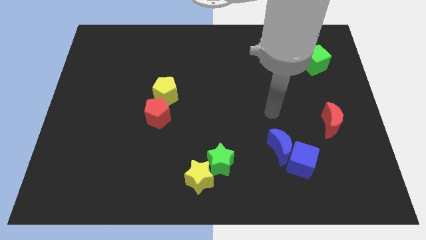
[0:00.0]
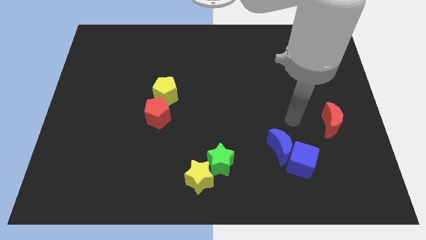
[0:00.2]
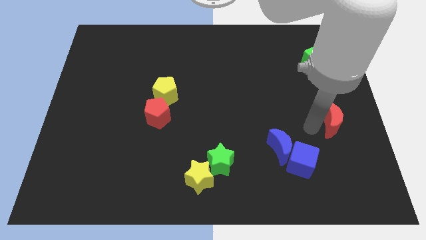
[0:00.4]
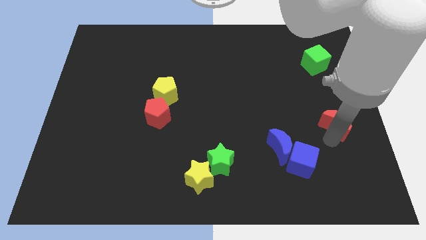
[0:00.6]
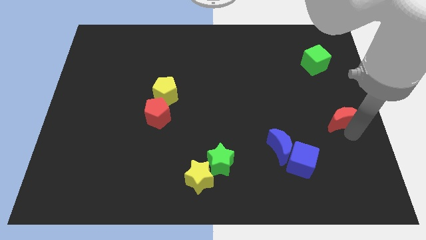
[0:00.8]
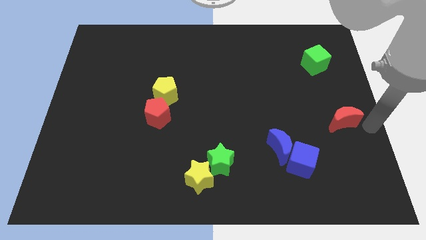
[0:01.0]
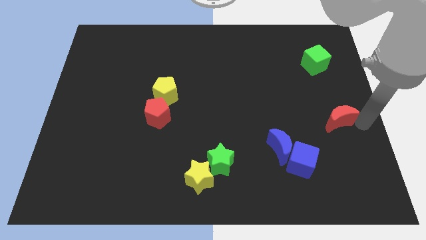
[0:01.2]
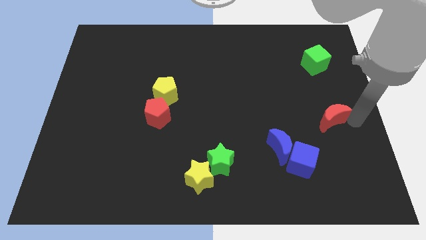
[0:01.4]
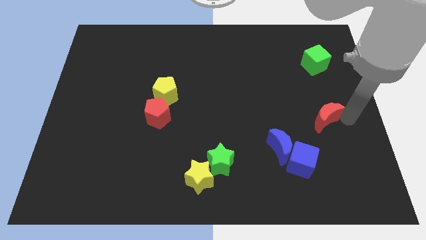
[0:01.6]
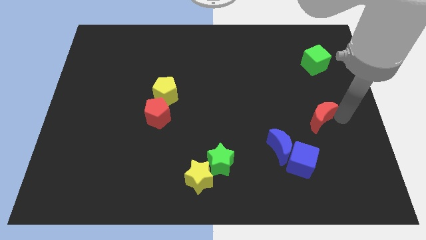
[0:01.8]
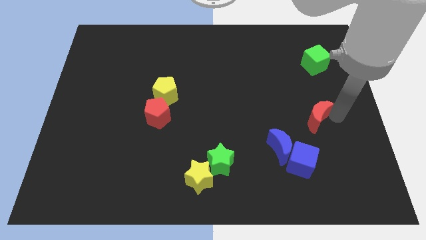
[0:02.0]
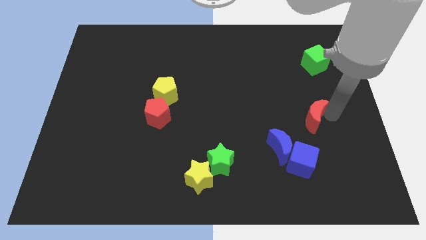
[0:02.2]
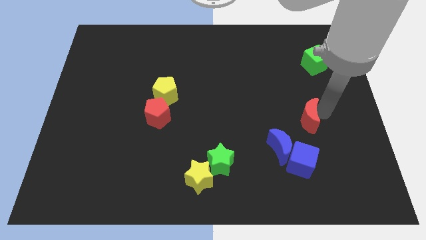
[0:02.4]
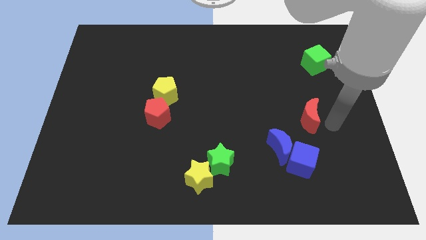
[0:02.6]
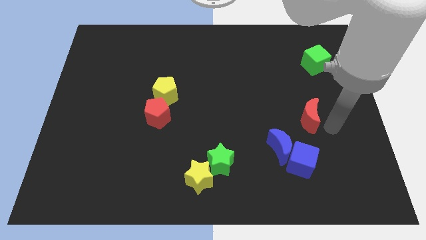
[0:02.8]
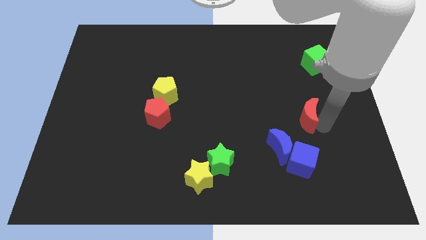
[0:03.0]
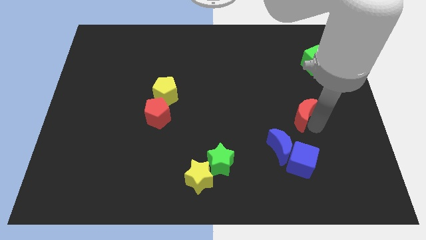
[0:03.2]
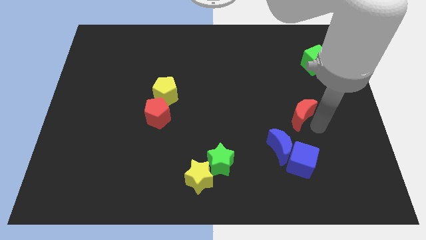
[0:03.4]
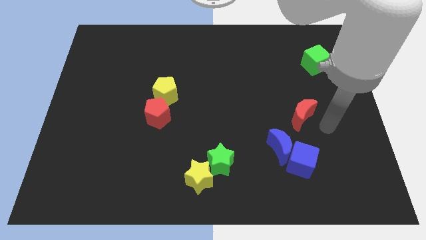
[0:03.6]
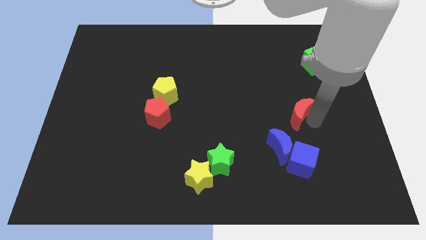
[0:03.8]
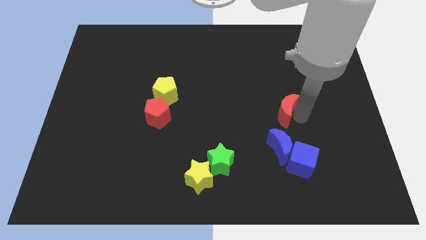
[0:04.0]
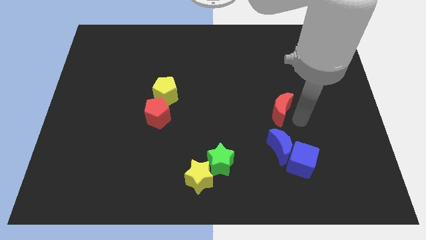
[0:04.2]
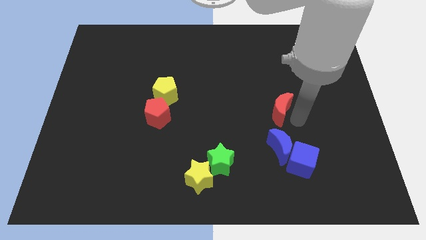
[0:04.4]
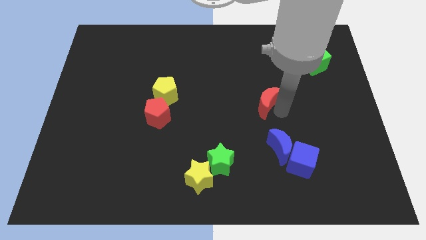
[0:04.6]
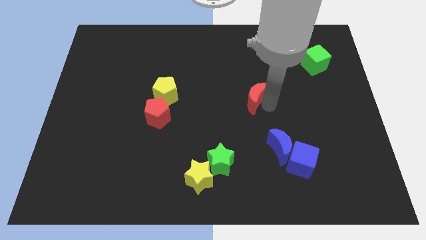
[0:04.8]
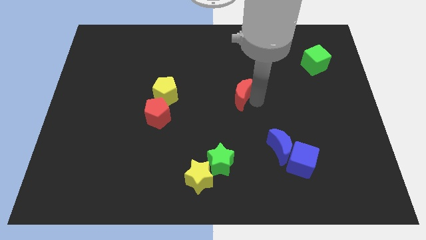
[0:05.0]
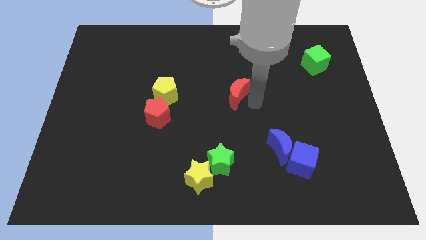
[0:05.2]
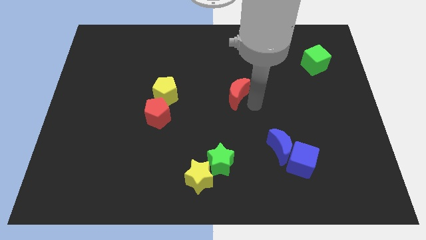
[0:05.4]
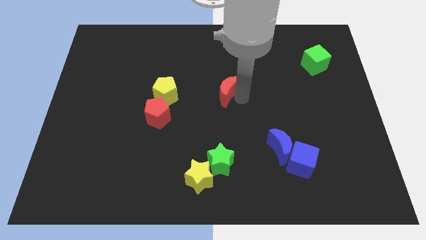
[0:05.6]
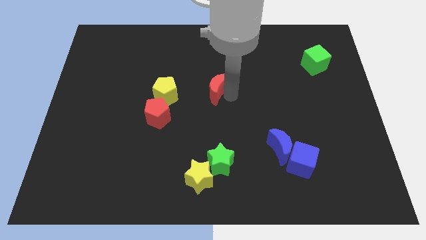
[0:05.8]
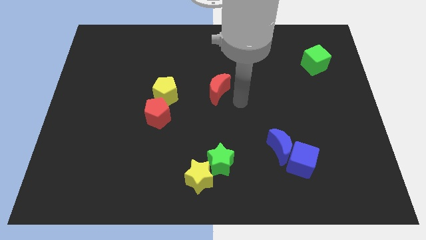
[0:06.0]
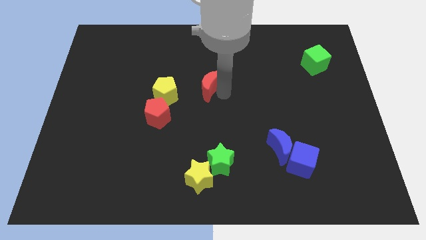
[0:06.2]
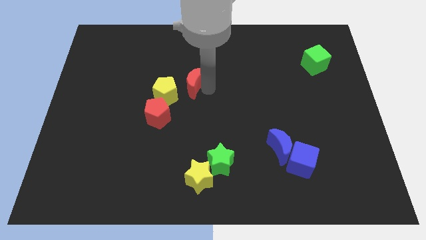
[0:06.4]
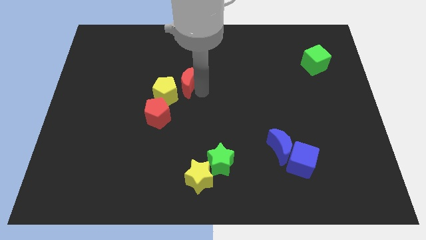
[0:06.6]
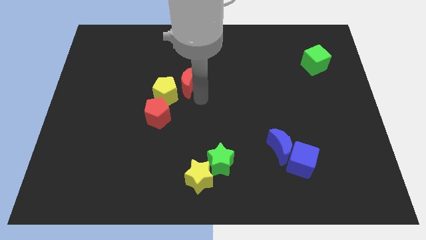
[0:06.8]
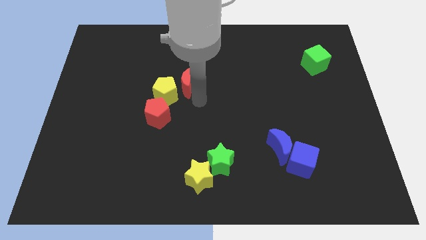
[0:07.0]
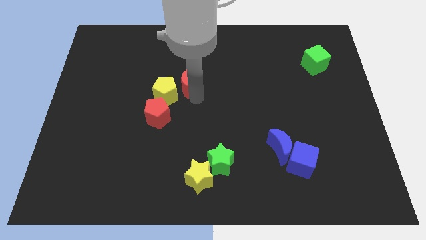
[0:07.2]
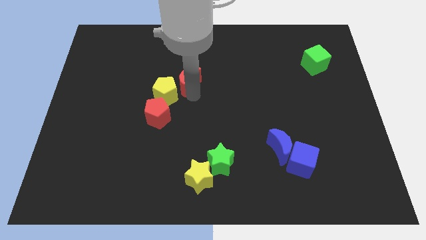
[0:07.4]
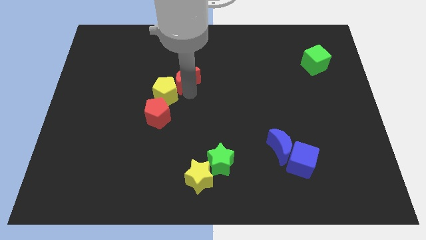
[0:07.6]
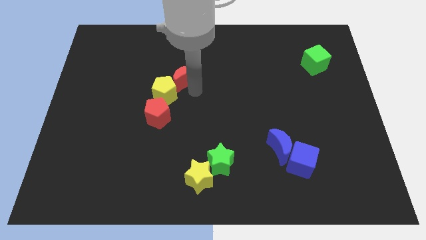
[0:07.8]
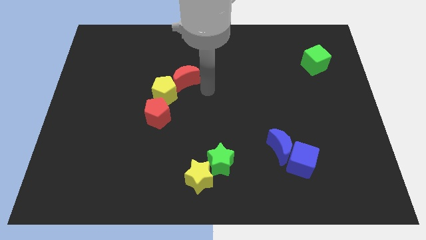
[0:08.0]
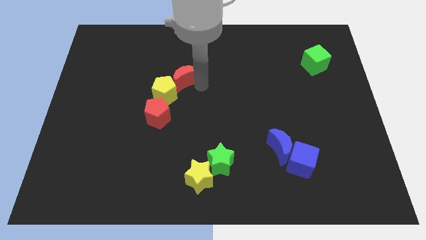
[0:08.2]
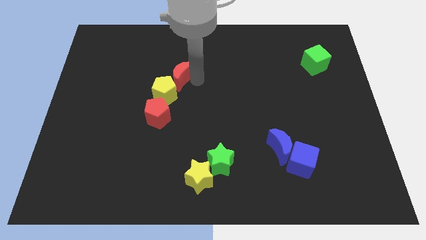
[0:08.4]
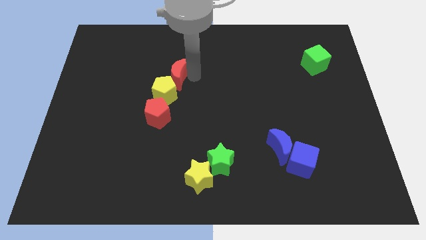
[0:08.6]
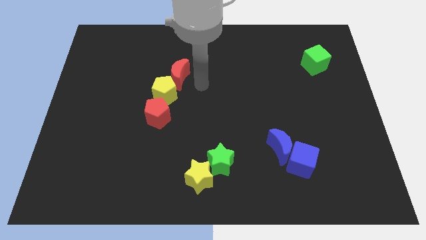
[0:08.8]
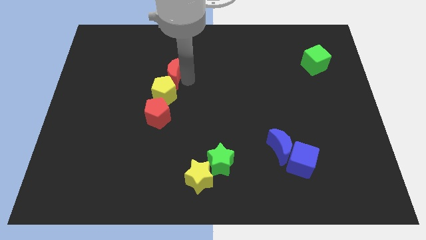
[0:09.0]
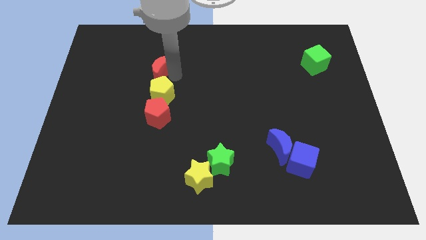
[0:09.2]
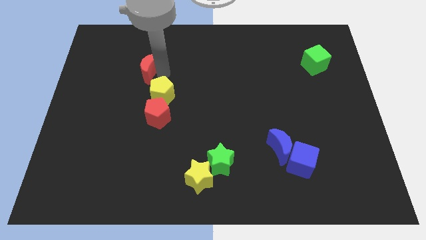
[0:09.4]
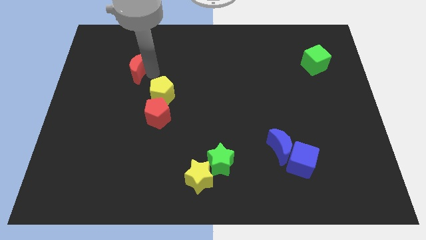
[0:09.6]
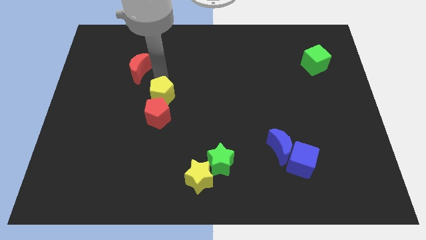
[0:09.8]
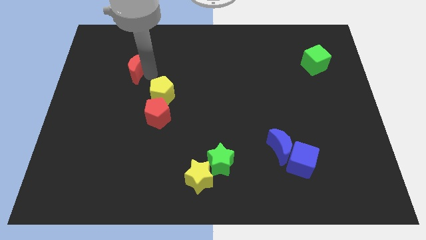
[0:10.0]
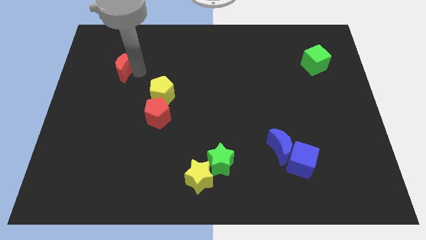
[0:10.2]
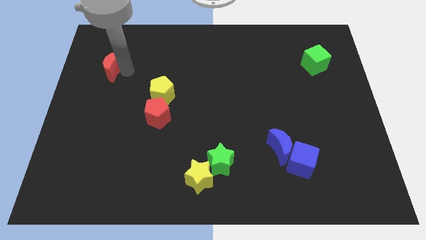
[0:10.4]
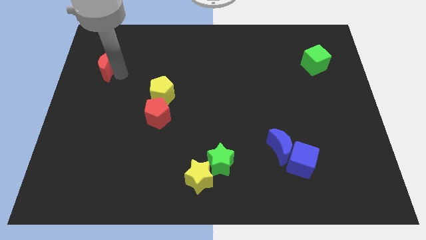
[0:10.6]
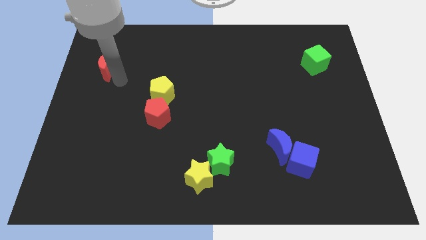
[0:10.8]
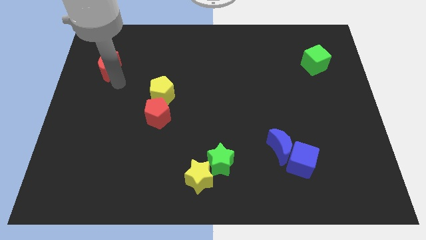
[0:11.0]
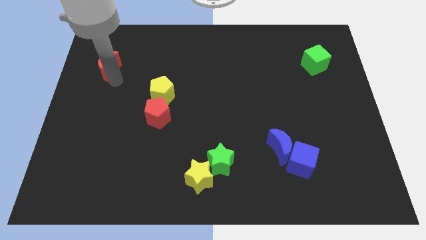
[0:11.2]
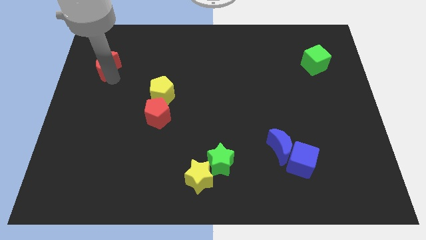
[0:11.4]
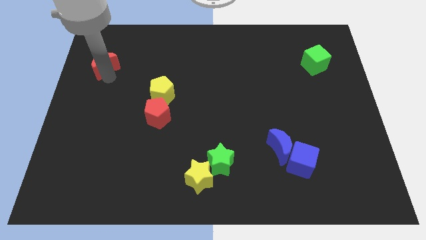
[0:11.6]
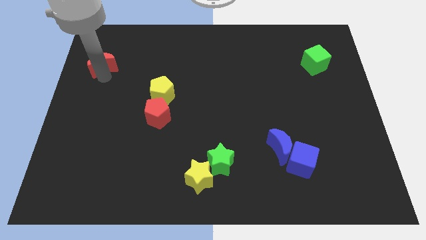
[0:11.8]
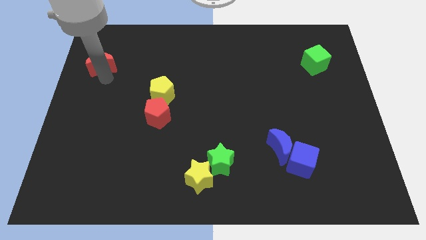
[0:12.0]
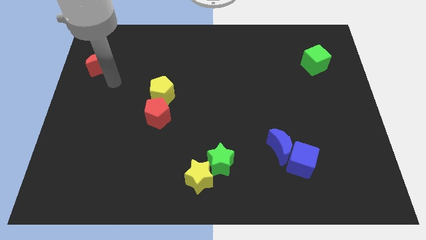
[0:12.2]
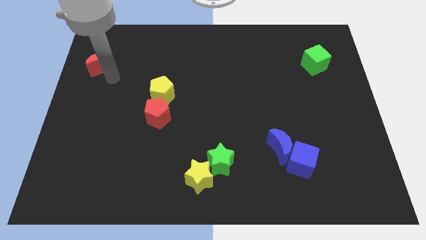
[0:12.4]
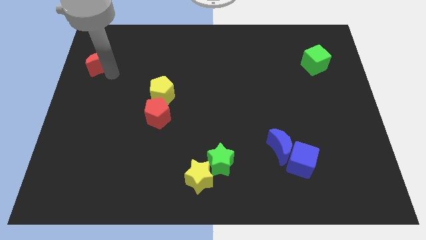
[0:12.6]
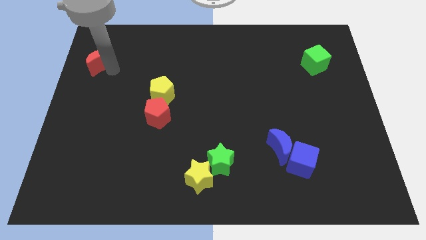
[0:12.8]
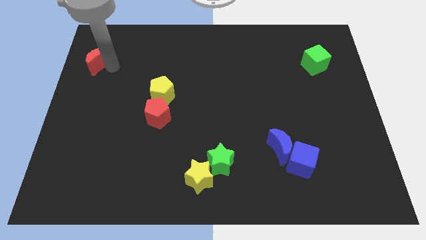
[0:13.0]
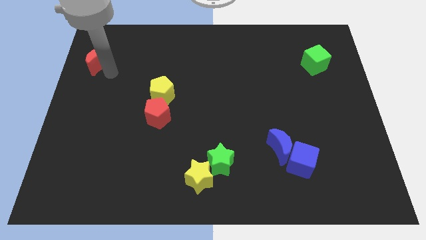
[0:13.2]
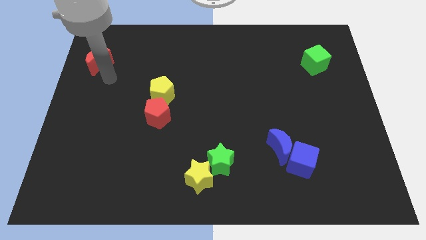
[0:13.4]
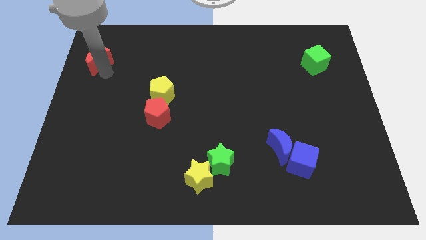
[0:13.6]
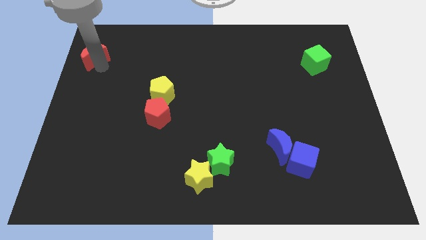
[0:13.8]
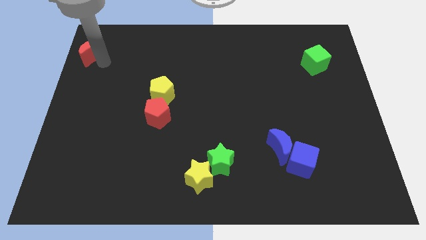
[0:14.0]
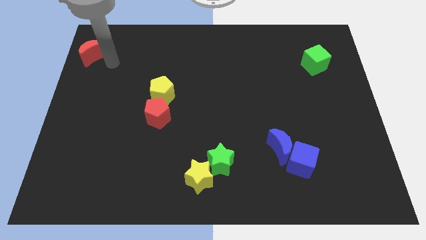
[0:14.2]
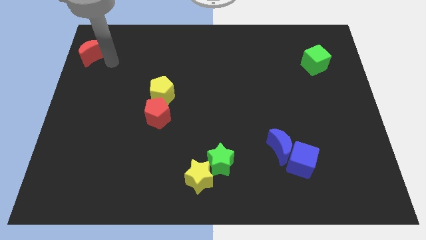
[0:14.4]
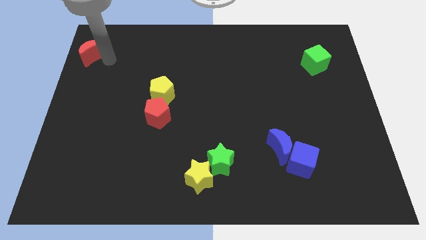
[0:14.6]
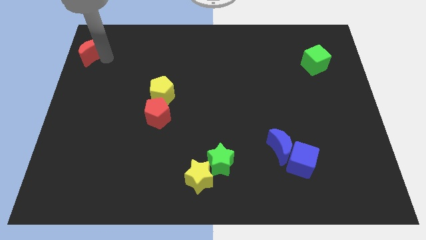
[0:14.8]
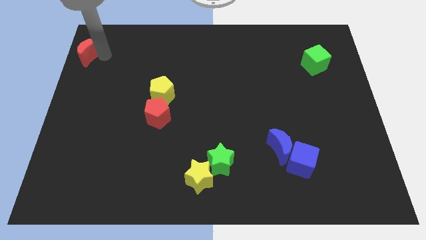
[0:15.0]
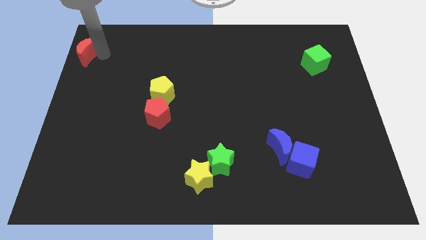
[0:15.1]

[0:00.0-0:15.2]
put the red moon to the top left of the board

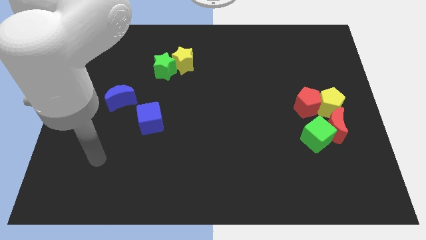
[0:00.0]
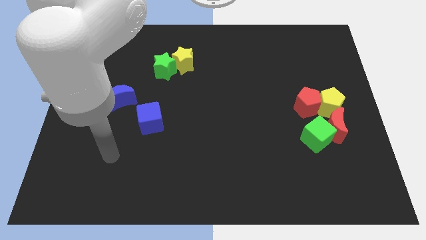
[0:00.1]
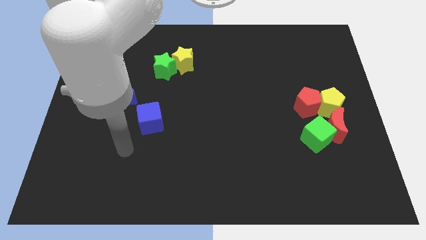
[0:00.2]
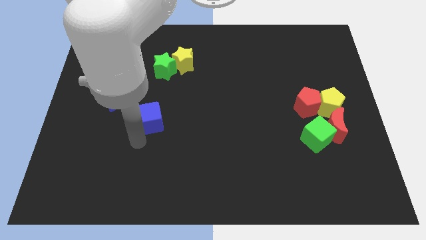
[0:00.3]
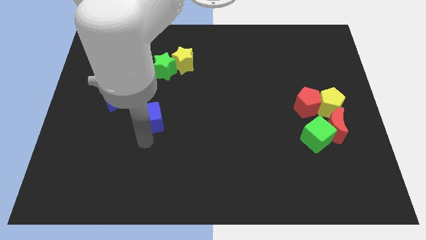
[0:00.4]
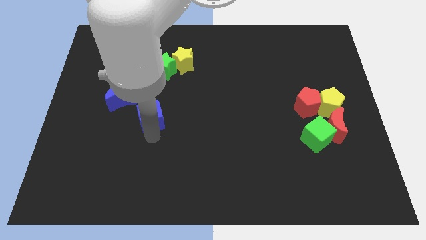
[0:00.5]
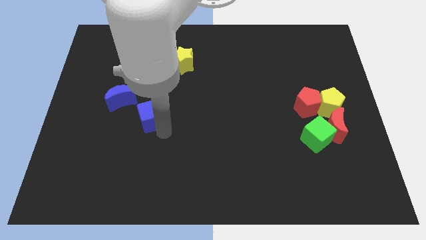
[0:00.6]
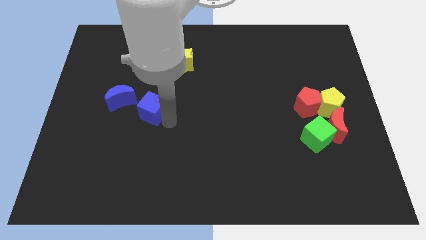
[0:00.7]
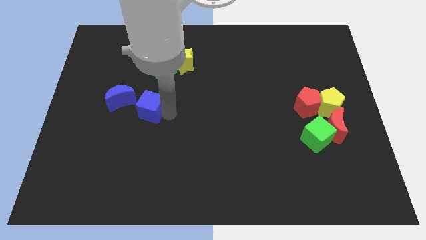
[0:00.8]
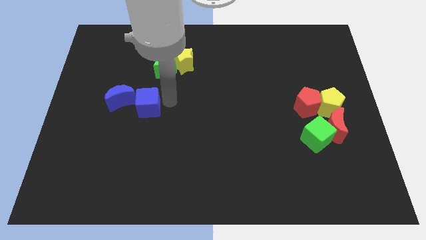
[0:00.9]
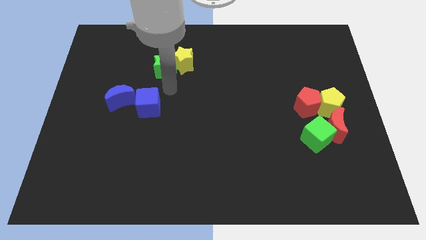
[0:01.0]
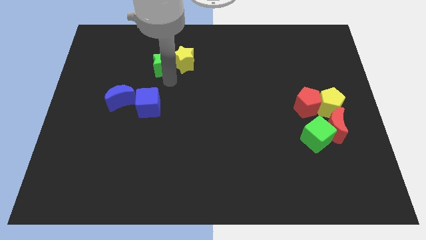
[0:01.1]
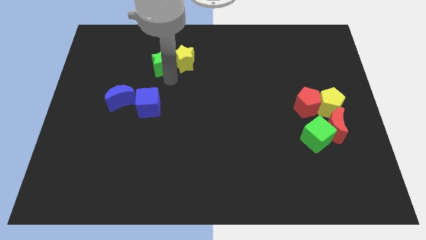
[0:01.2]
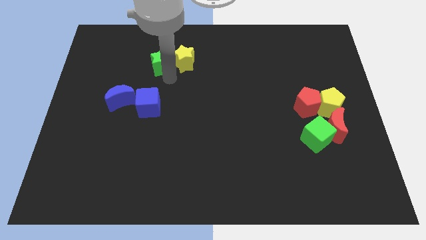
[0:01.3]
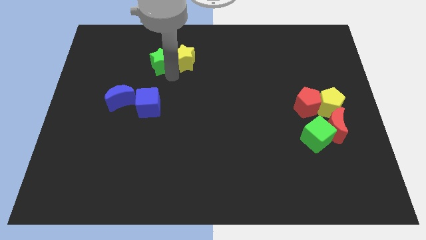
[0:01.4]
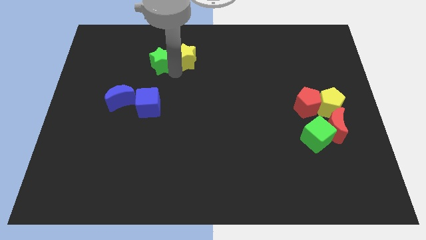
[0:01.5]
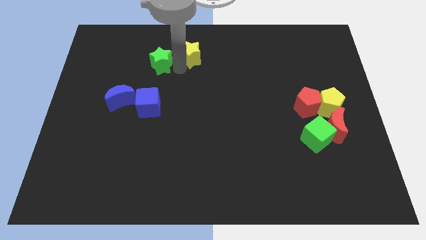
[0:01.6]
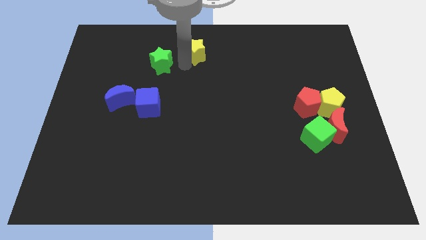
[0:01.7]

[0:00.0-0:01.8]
put the yellow star to the top
